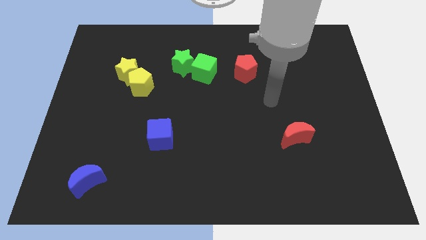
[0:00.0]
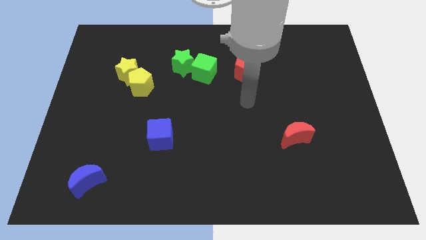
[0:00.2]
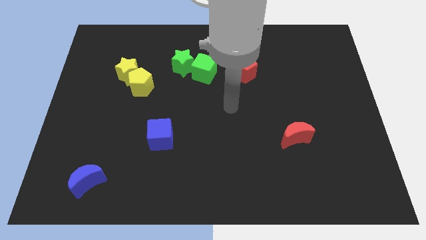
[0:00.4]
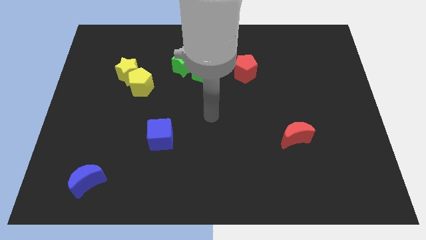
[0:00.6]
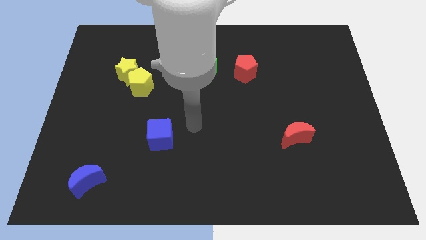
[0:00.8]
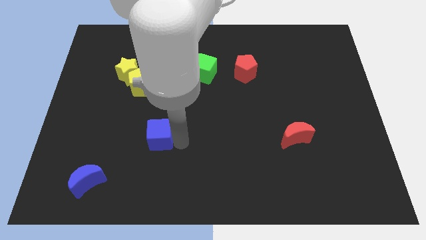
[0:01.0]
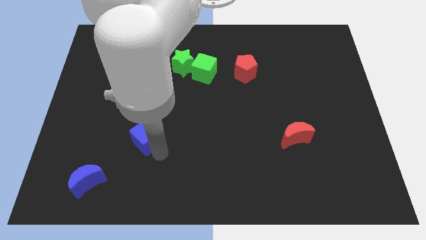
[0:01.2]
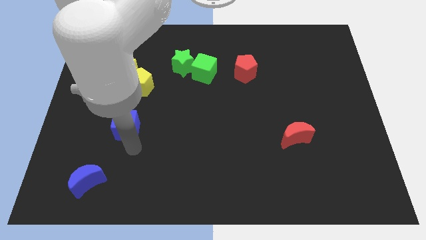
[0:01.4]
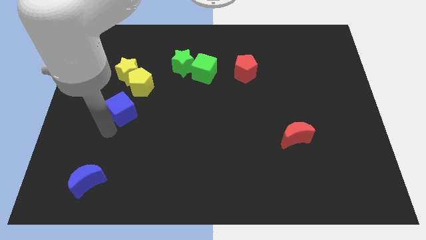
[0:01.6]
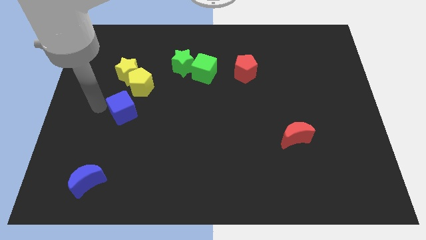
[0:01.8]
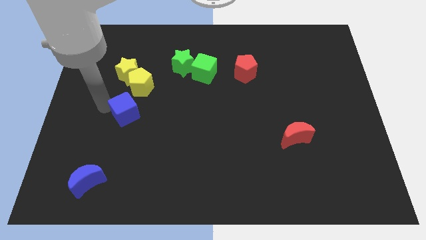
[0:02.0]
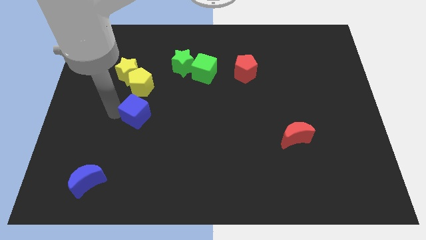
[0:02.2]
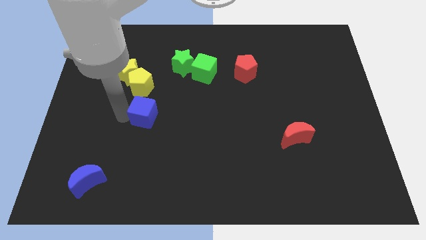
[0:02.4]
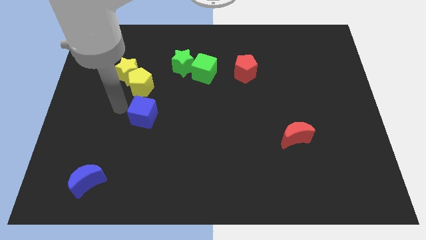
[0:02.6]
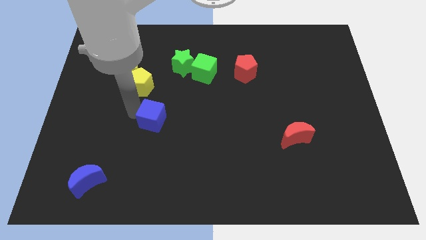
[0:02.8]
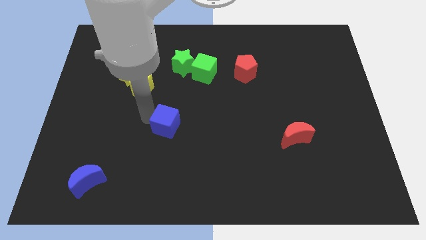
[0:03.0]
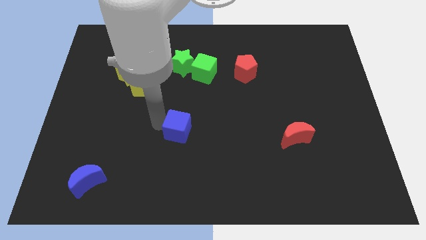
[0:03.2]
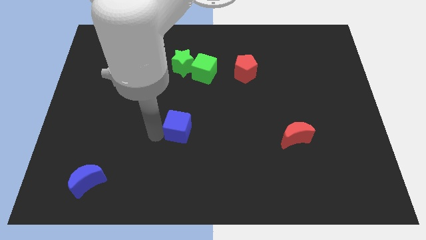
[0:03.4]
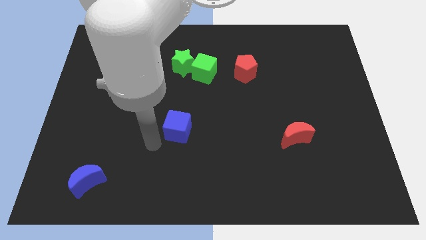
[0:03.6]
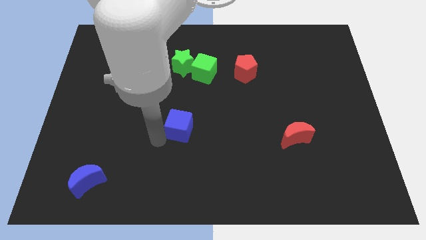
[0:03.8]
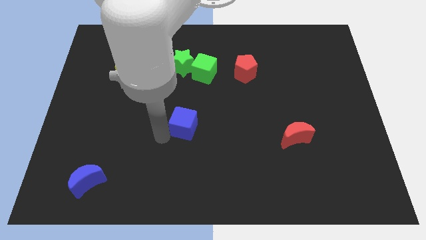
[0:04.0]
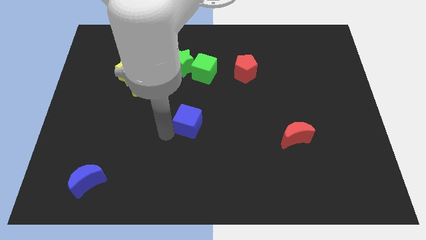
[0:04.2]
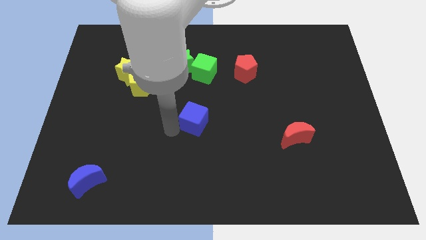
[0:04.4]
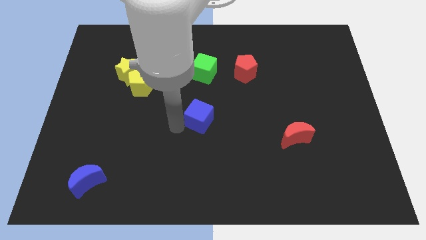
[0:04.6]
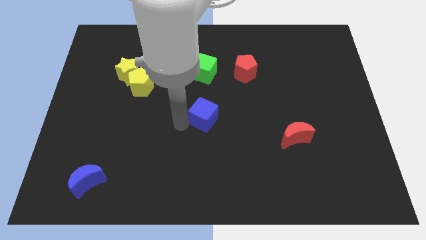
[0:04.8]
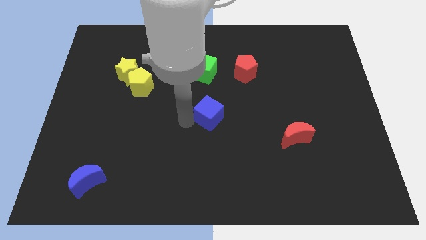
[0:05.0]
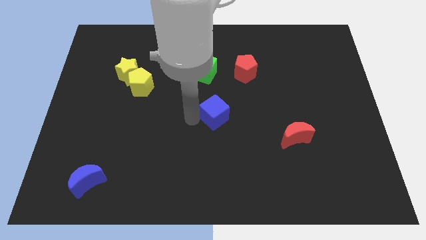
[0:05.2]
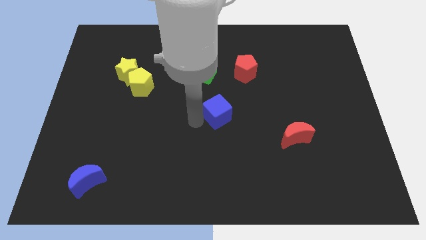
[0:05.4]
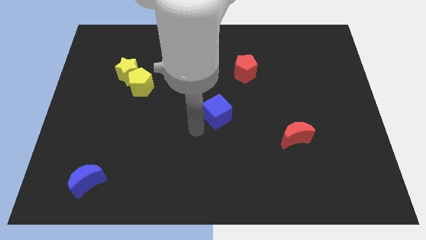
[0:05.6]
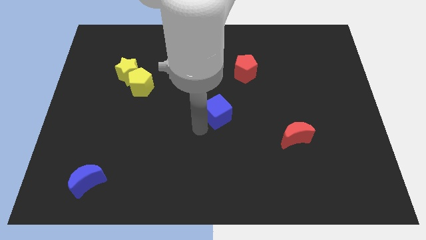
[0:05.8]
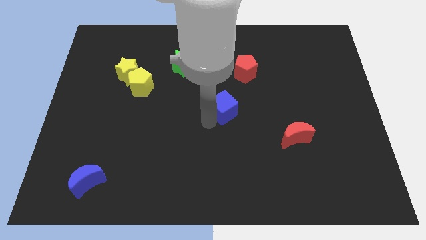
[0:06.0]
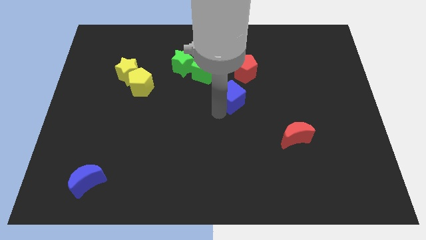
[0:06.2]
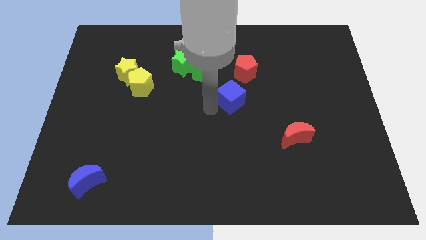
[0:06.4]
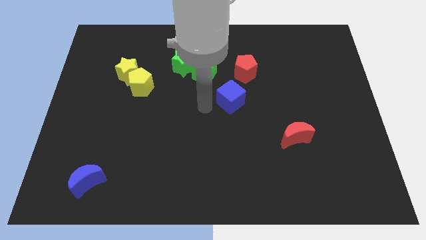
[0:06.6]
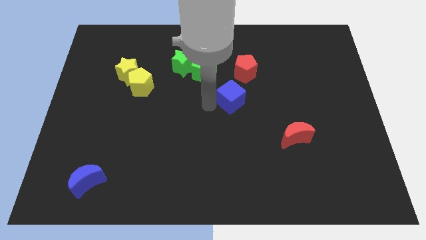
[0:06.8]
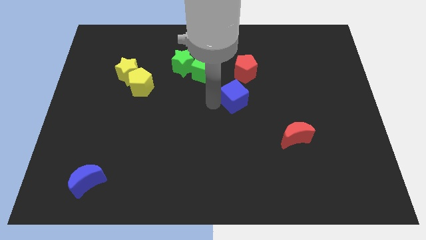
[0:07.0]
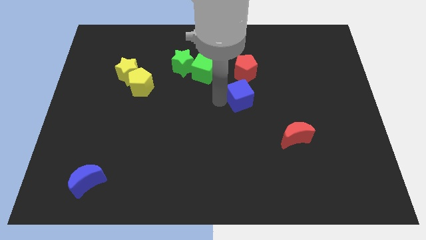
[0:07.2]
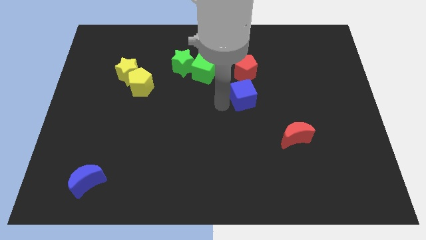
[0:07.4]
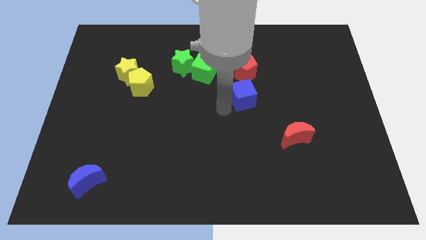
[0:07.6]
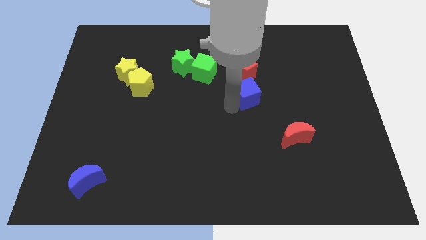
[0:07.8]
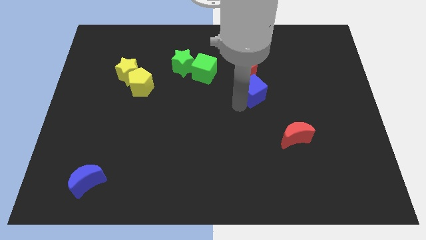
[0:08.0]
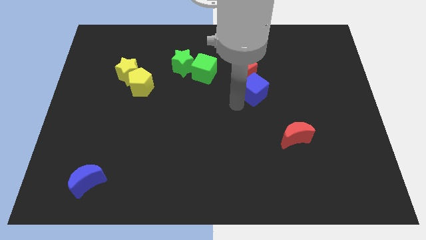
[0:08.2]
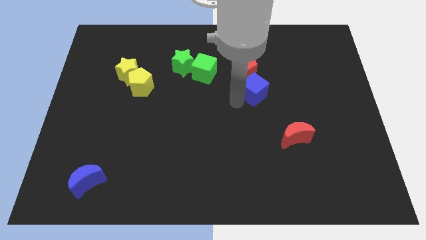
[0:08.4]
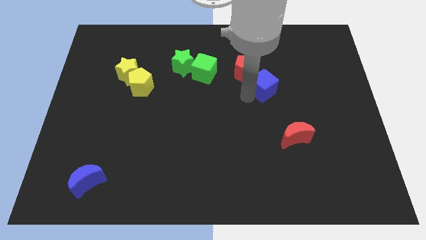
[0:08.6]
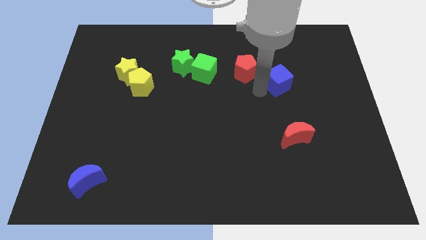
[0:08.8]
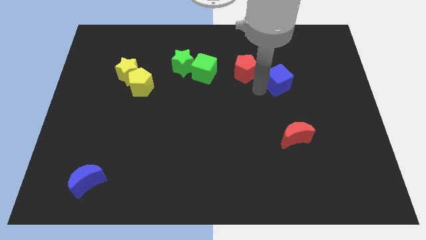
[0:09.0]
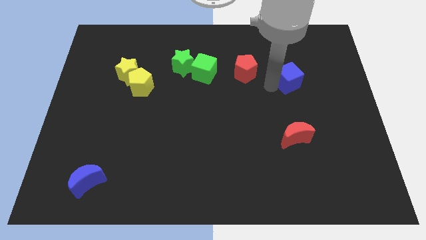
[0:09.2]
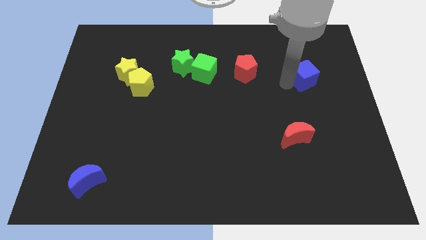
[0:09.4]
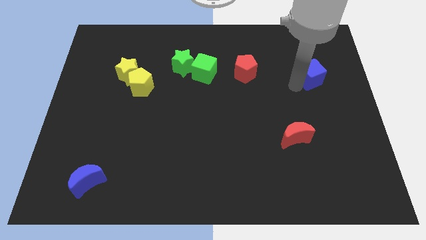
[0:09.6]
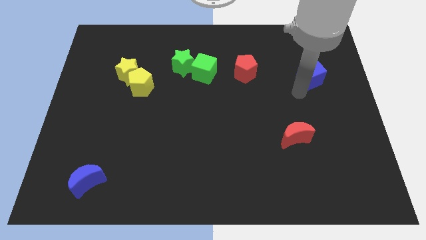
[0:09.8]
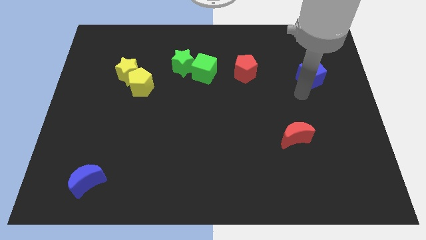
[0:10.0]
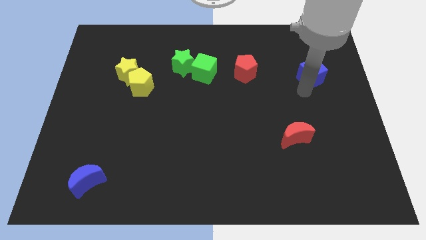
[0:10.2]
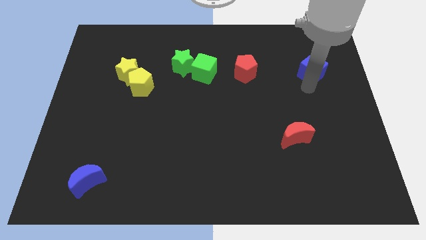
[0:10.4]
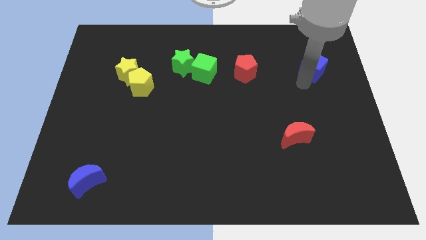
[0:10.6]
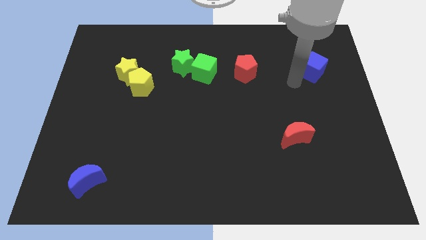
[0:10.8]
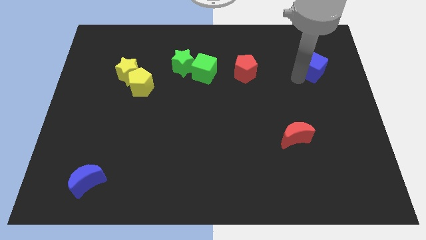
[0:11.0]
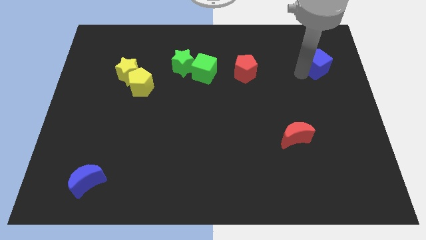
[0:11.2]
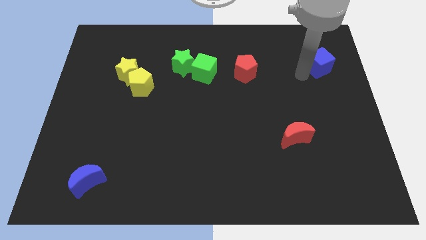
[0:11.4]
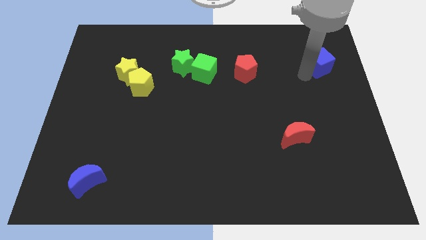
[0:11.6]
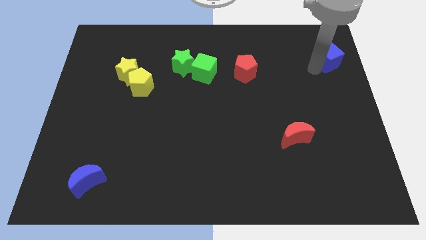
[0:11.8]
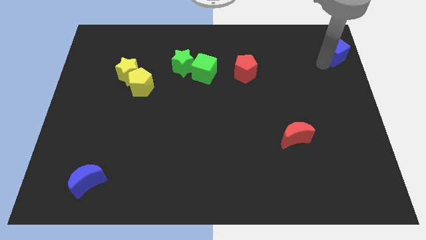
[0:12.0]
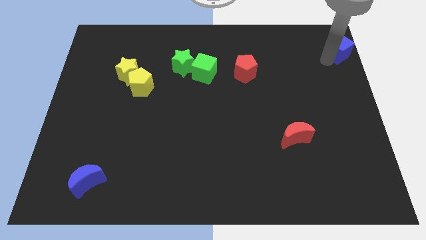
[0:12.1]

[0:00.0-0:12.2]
move the blue cube to the top right of the board

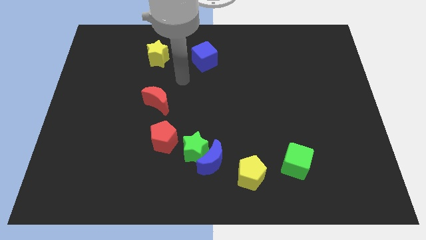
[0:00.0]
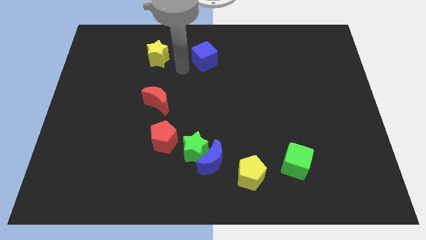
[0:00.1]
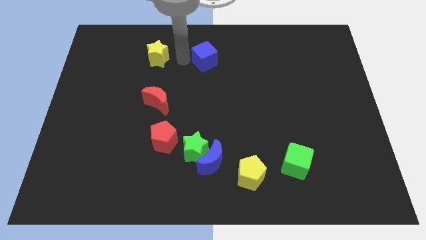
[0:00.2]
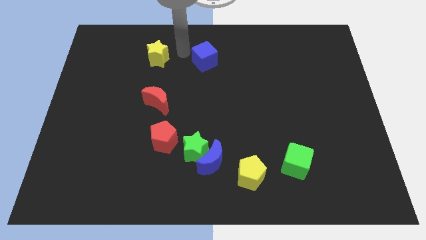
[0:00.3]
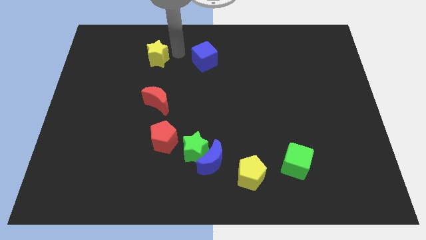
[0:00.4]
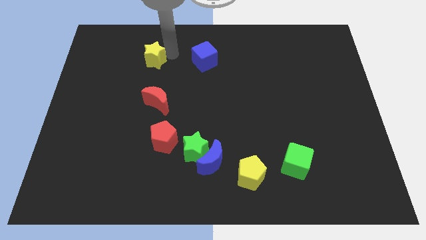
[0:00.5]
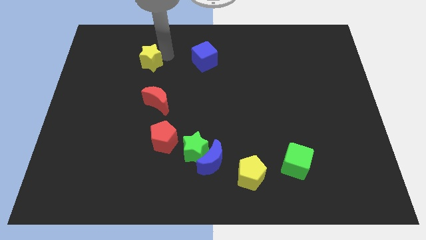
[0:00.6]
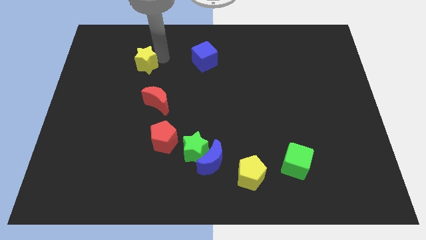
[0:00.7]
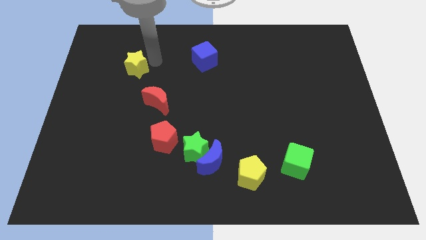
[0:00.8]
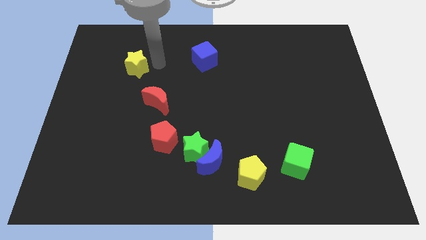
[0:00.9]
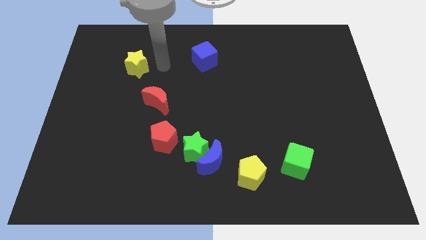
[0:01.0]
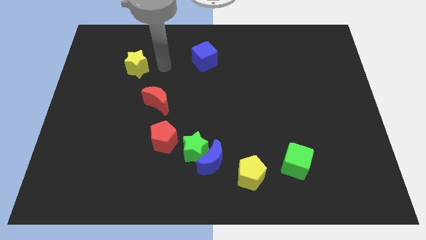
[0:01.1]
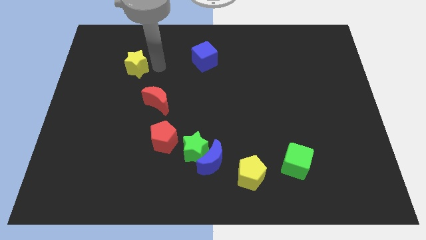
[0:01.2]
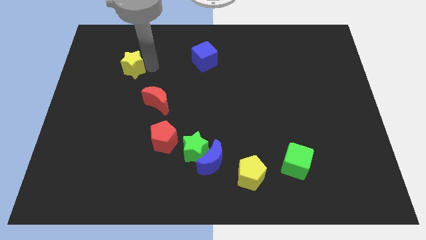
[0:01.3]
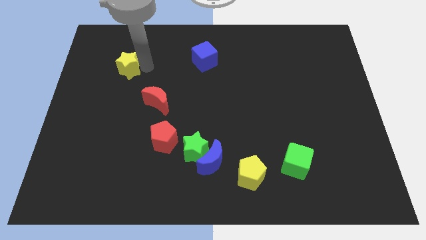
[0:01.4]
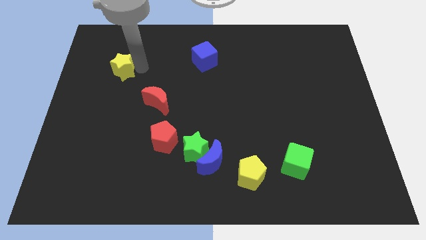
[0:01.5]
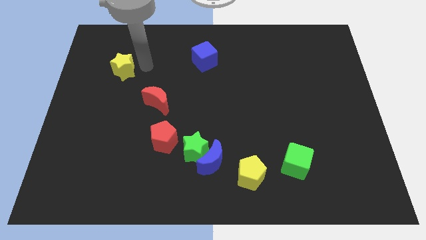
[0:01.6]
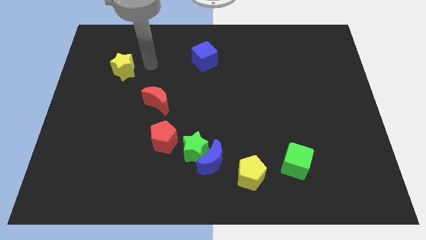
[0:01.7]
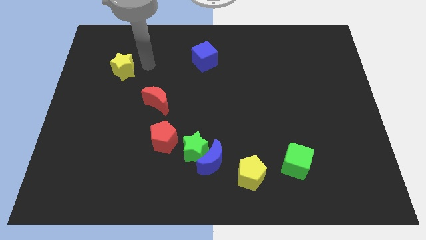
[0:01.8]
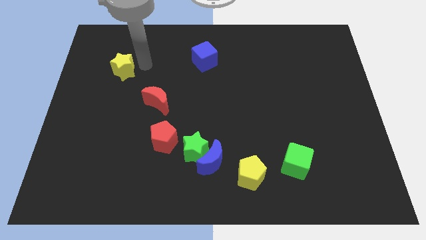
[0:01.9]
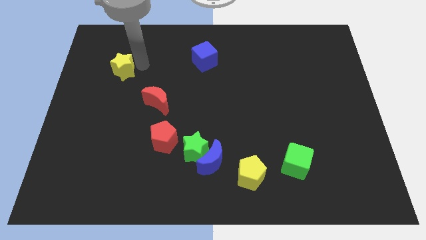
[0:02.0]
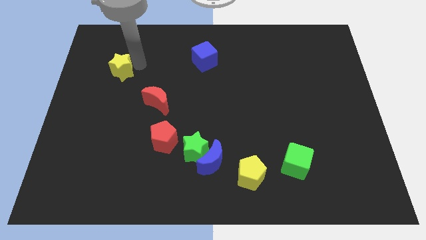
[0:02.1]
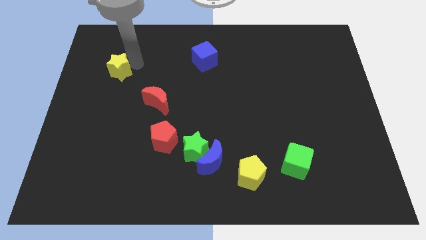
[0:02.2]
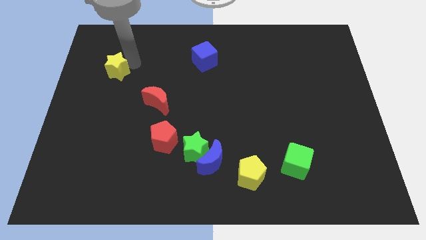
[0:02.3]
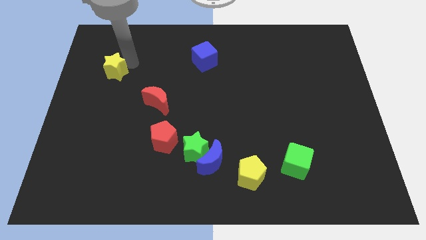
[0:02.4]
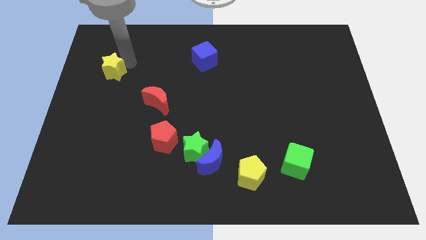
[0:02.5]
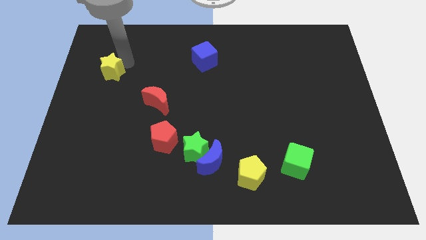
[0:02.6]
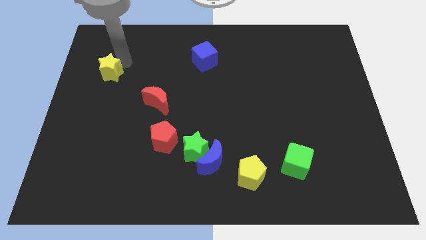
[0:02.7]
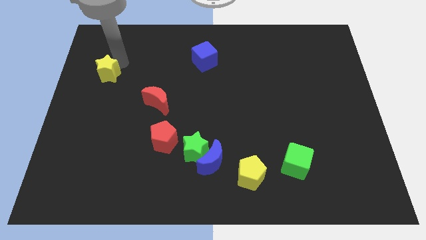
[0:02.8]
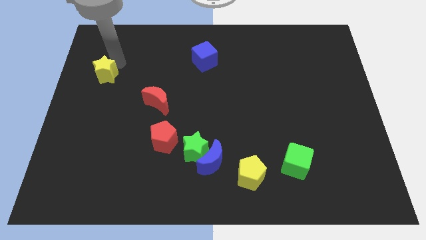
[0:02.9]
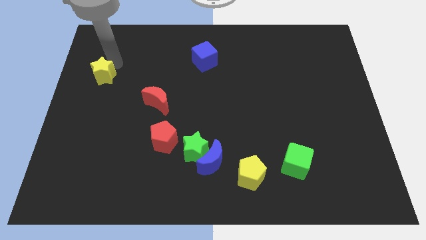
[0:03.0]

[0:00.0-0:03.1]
slide the yellow star to the left side of the board
